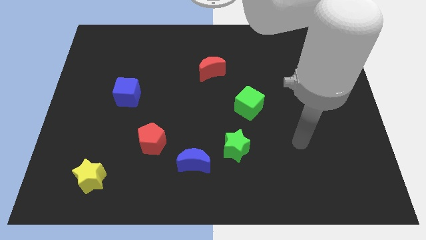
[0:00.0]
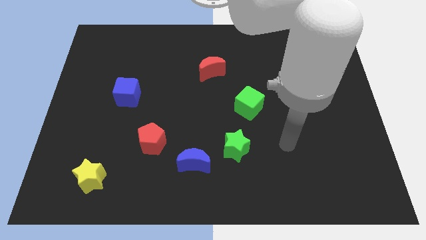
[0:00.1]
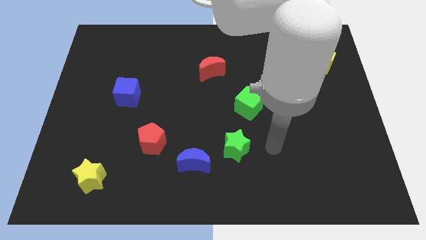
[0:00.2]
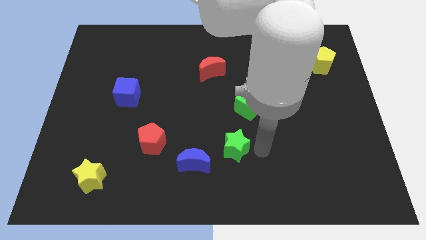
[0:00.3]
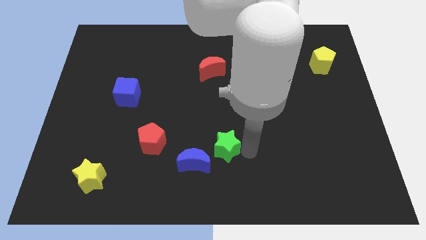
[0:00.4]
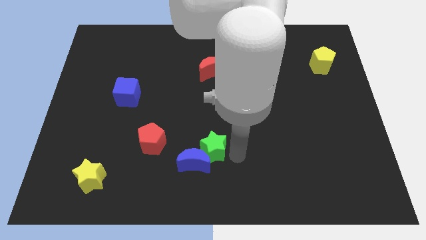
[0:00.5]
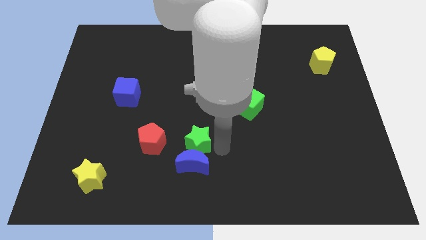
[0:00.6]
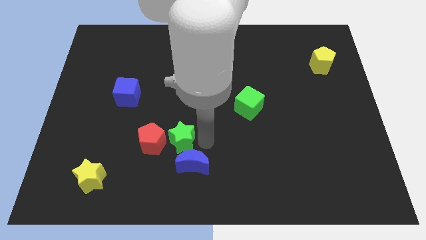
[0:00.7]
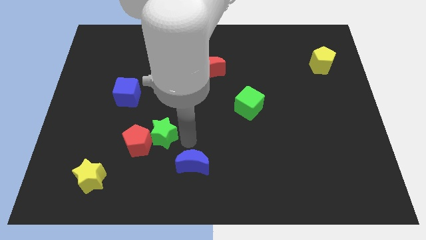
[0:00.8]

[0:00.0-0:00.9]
pull the blue moon apart from the green star

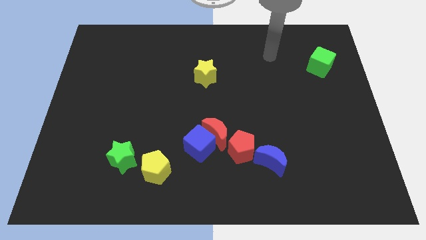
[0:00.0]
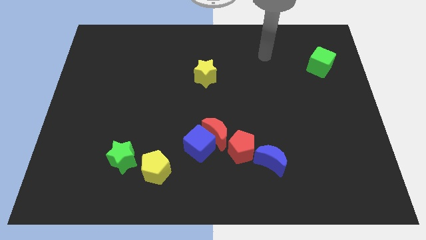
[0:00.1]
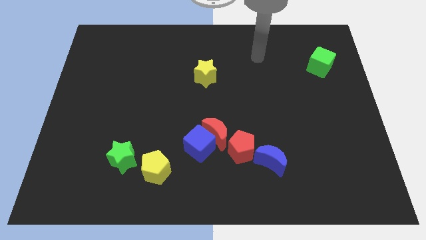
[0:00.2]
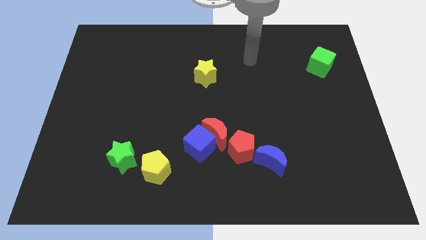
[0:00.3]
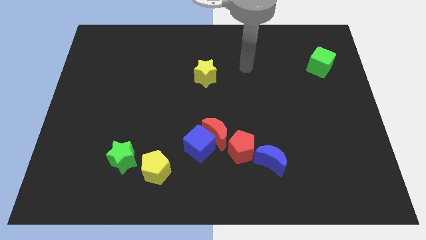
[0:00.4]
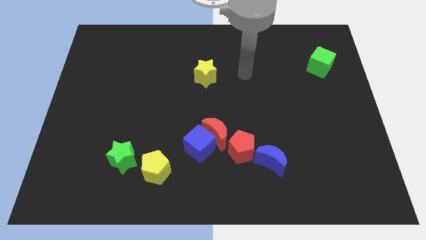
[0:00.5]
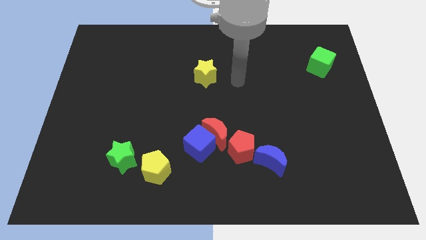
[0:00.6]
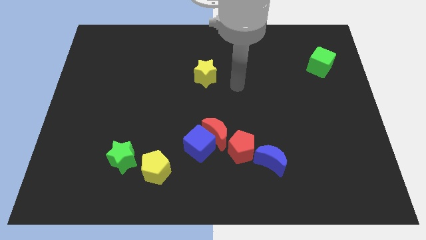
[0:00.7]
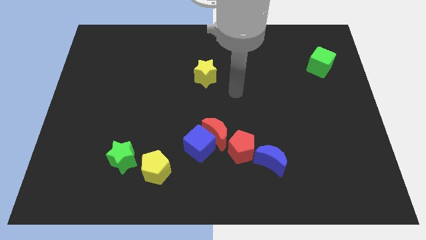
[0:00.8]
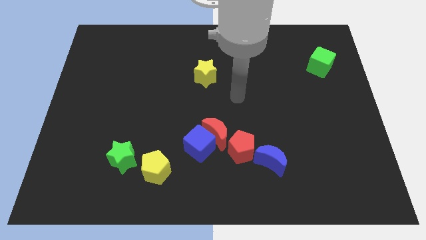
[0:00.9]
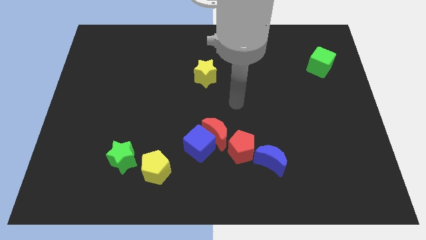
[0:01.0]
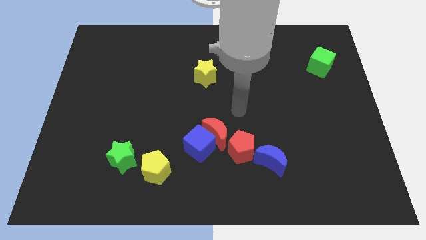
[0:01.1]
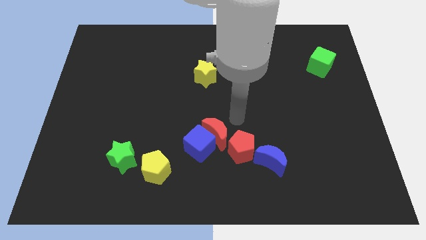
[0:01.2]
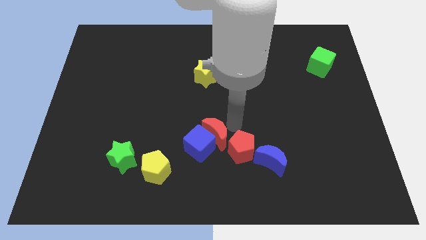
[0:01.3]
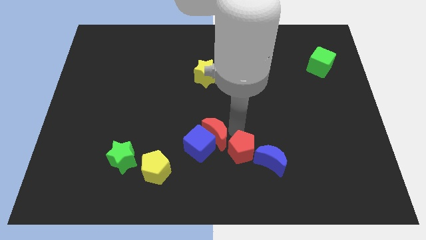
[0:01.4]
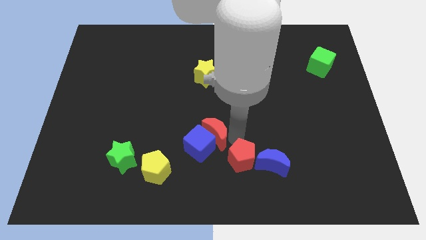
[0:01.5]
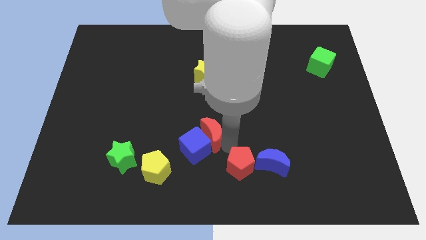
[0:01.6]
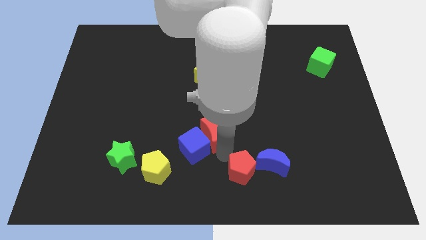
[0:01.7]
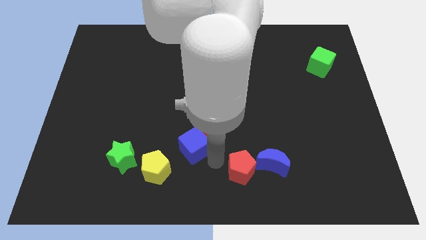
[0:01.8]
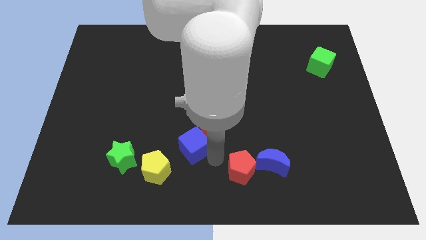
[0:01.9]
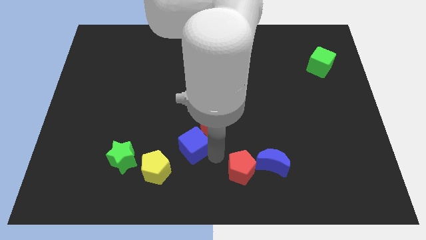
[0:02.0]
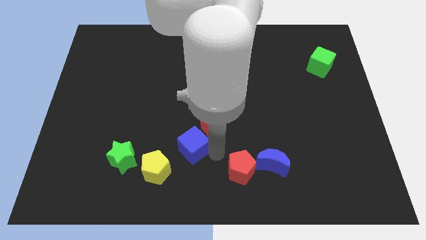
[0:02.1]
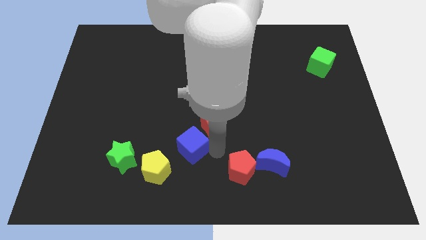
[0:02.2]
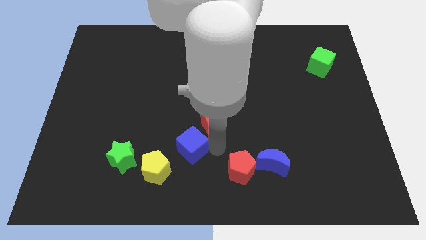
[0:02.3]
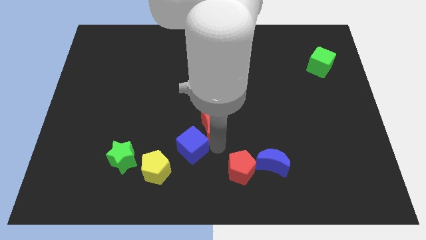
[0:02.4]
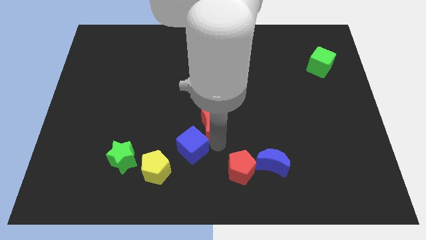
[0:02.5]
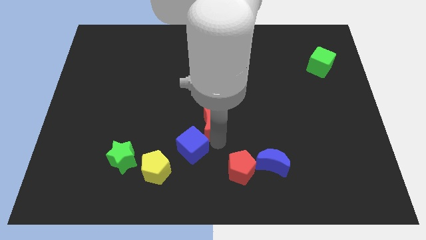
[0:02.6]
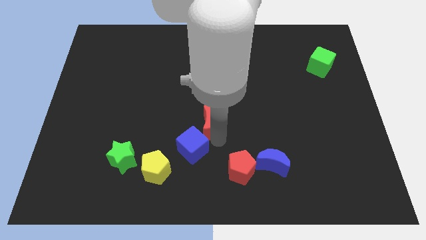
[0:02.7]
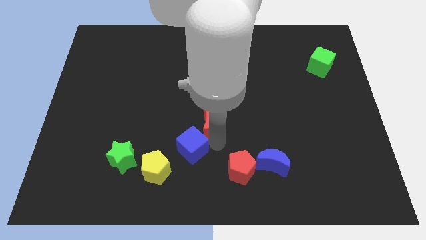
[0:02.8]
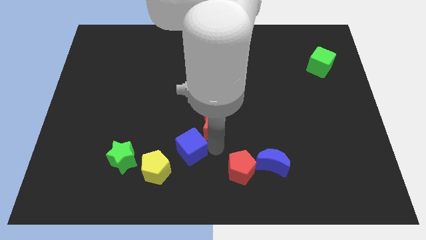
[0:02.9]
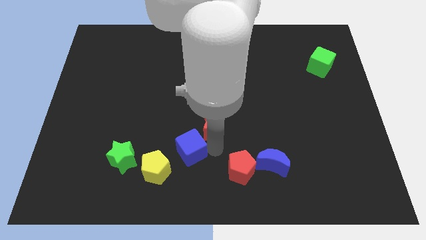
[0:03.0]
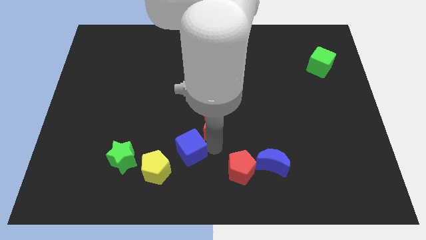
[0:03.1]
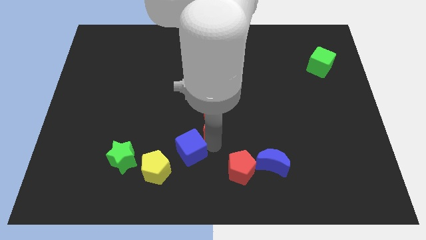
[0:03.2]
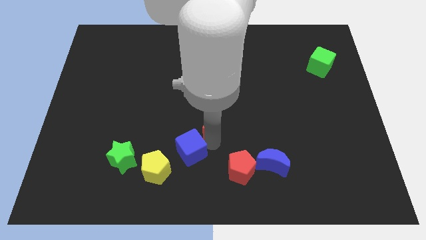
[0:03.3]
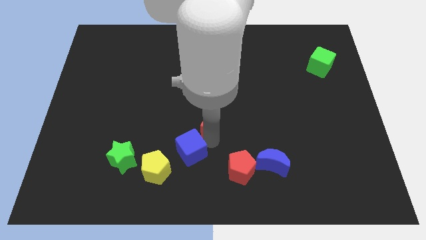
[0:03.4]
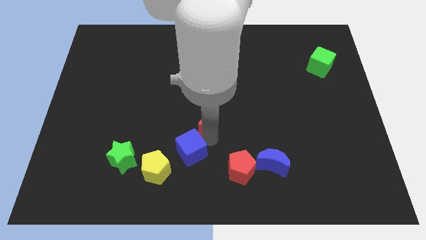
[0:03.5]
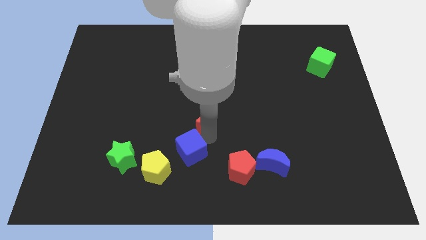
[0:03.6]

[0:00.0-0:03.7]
pull the red moon apart from the blue cube and red pentagon

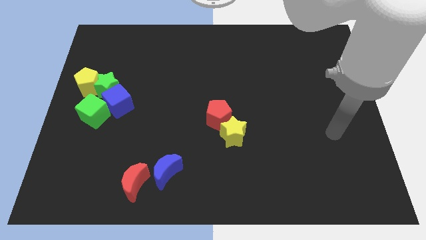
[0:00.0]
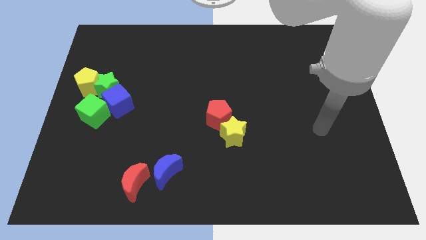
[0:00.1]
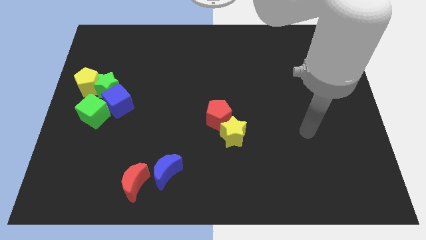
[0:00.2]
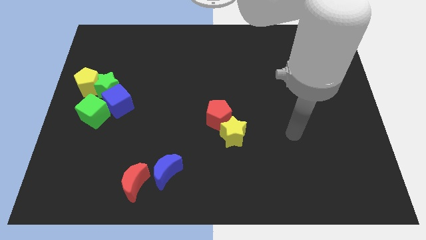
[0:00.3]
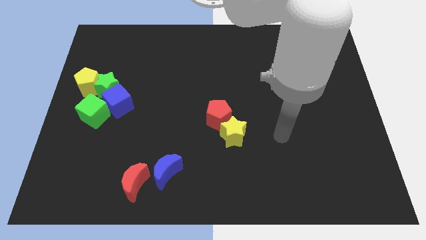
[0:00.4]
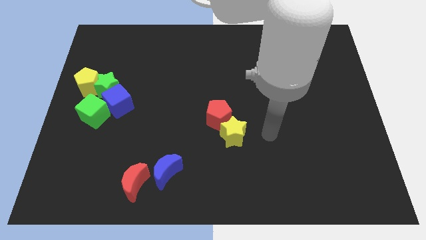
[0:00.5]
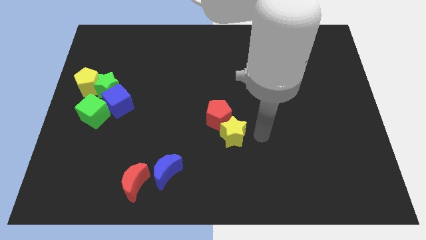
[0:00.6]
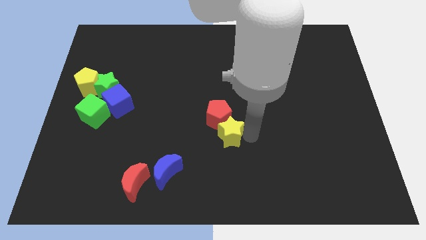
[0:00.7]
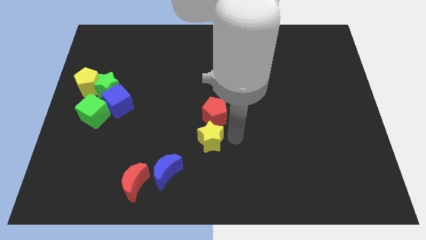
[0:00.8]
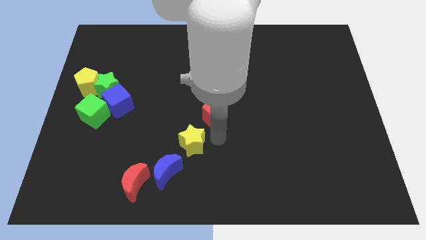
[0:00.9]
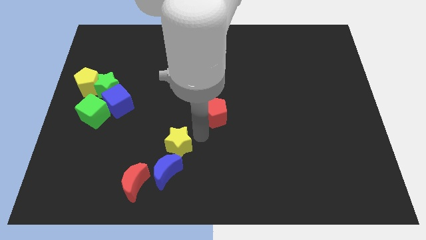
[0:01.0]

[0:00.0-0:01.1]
move the red pentagon away from the yellow star

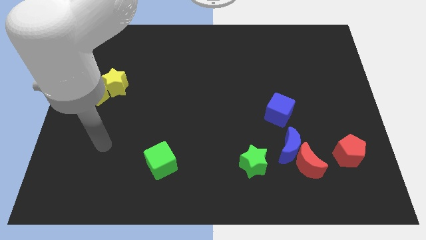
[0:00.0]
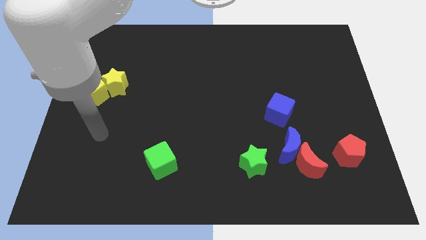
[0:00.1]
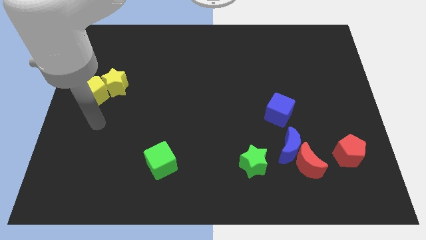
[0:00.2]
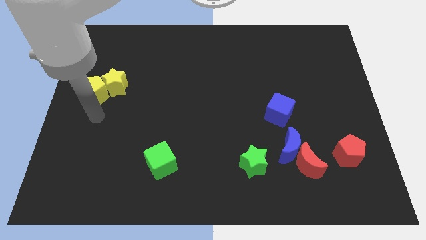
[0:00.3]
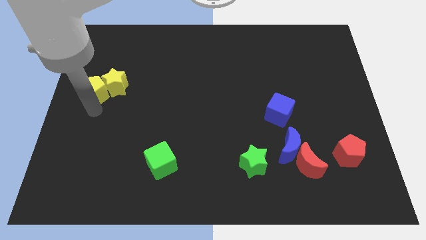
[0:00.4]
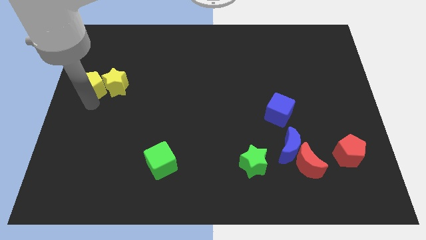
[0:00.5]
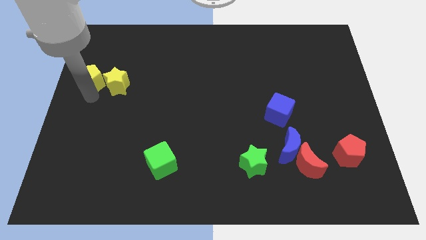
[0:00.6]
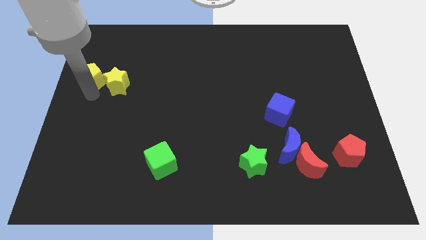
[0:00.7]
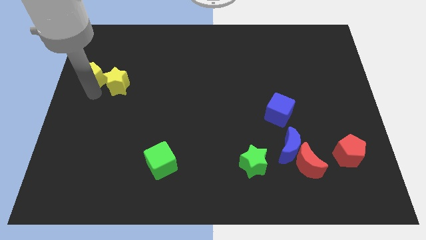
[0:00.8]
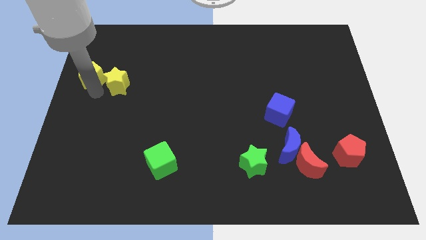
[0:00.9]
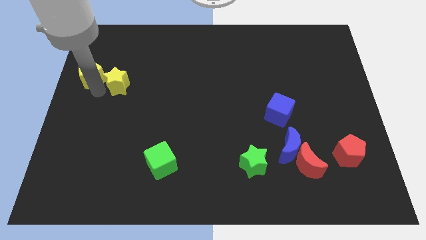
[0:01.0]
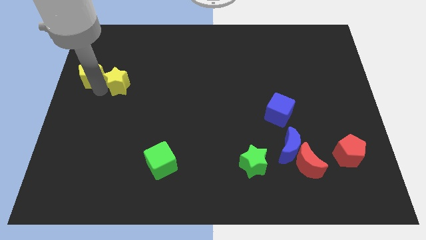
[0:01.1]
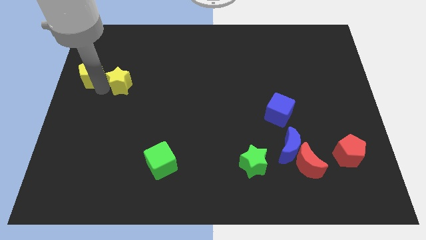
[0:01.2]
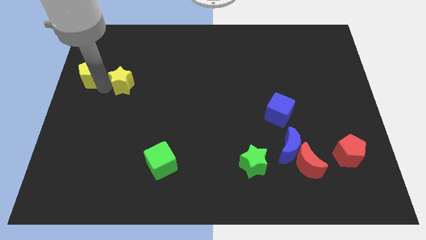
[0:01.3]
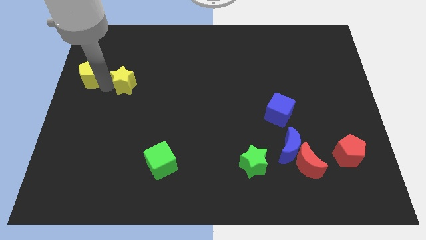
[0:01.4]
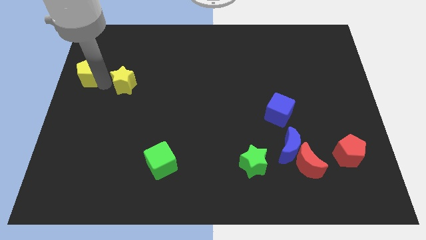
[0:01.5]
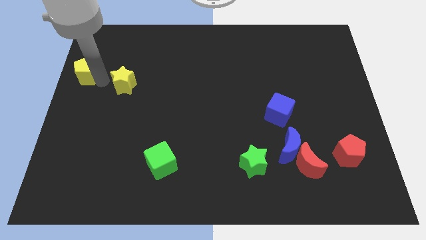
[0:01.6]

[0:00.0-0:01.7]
separate the yellow star from the yellow pentagon

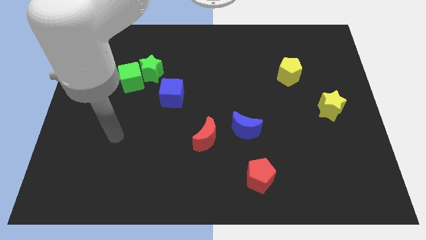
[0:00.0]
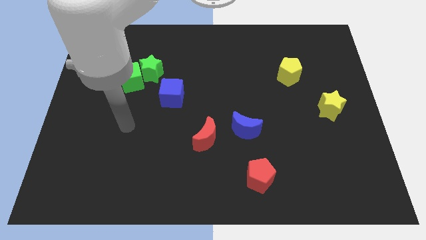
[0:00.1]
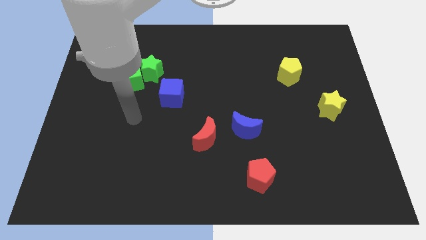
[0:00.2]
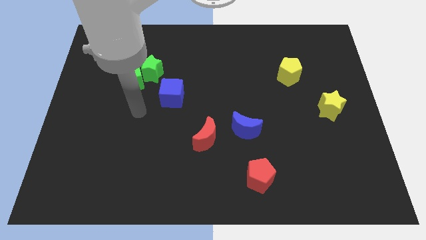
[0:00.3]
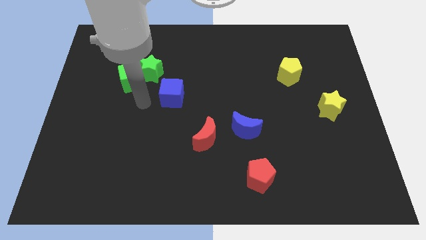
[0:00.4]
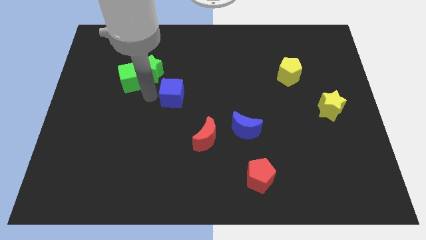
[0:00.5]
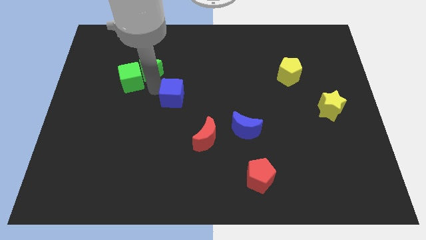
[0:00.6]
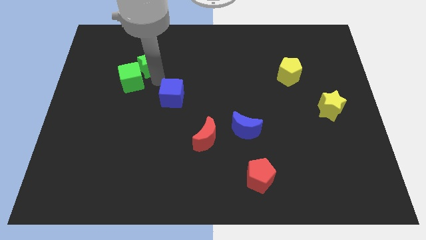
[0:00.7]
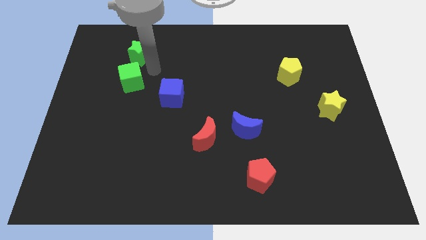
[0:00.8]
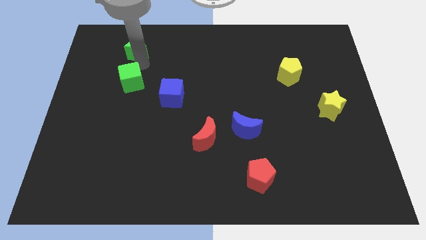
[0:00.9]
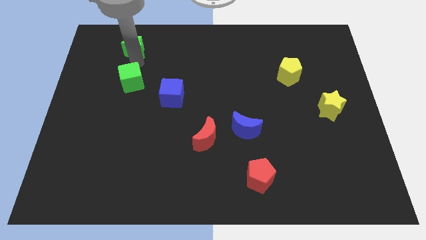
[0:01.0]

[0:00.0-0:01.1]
move the green cube away from the green star

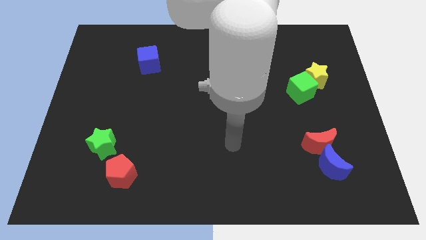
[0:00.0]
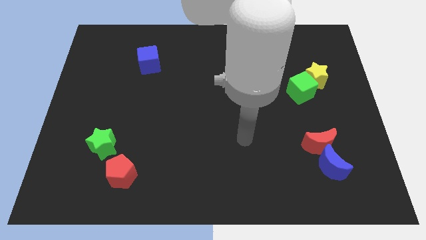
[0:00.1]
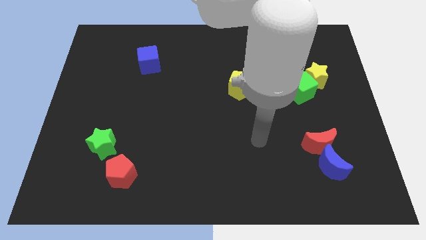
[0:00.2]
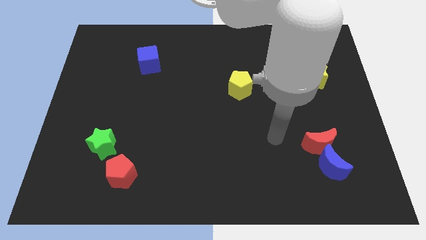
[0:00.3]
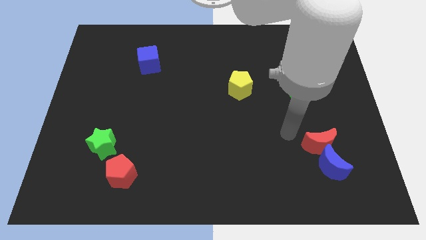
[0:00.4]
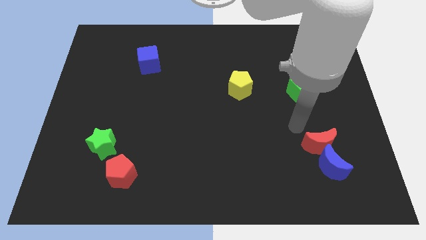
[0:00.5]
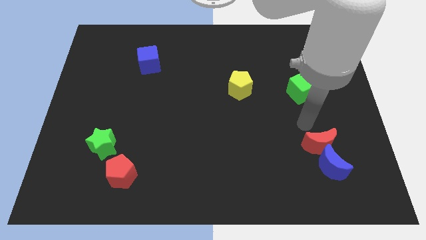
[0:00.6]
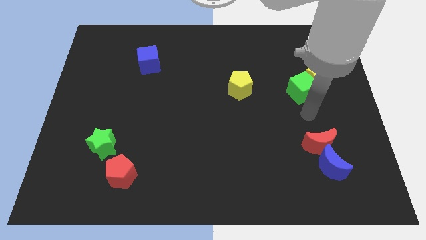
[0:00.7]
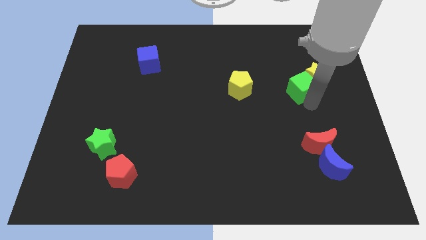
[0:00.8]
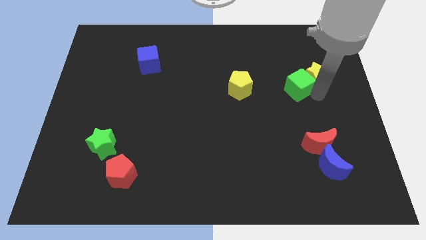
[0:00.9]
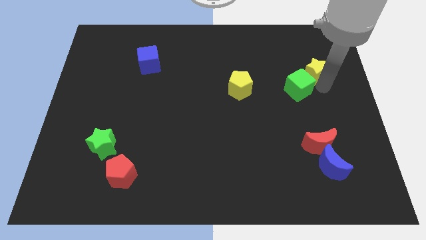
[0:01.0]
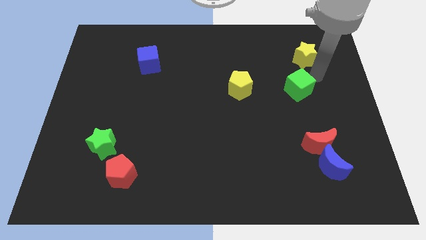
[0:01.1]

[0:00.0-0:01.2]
separate the green cube from the yellow star
